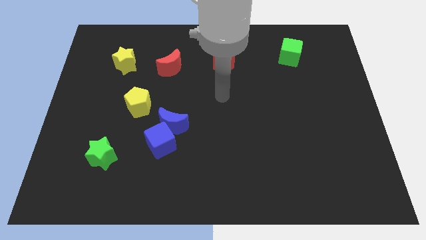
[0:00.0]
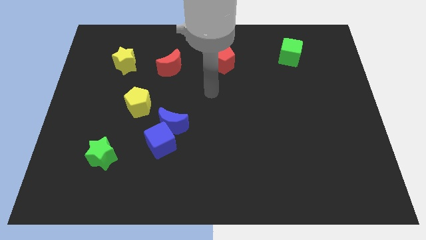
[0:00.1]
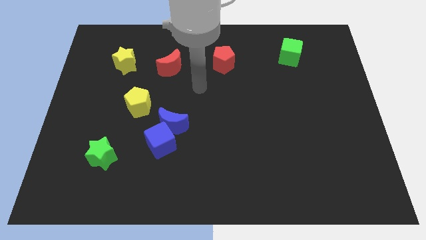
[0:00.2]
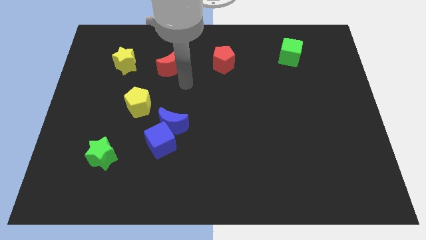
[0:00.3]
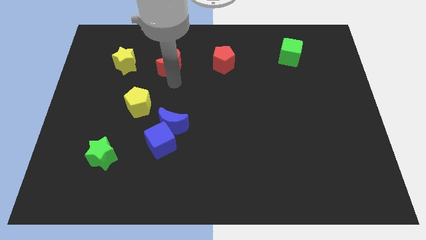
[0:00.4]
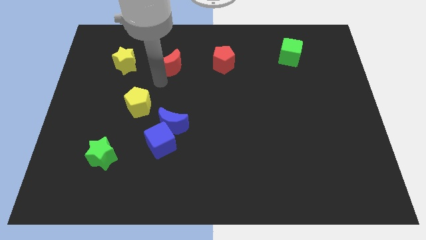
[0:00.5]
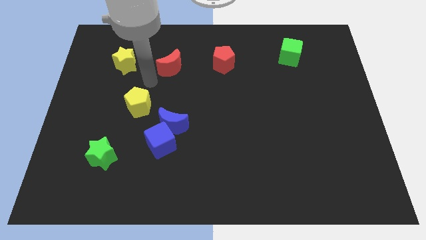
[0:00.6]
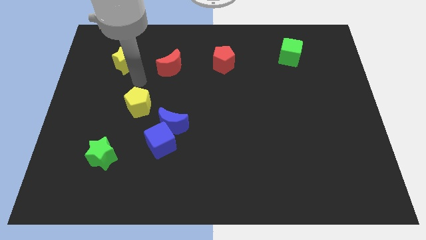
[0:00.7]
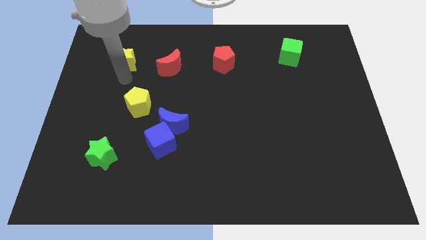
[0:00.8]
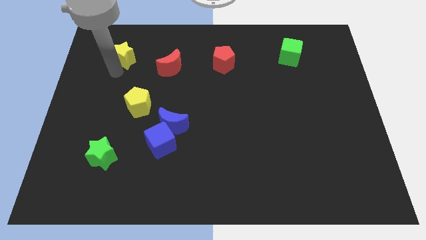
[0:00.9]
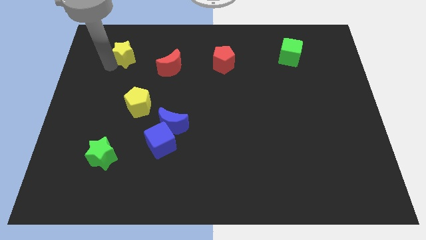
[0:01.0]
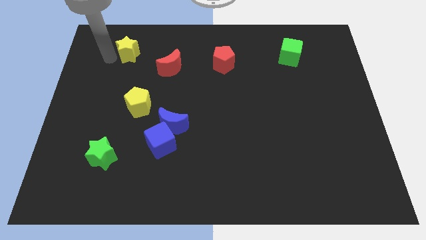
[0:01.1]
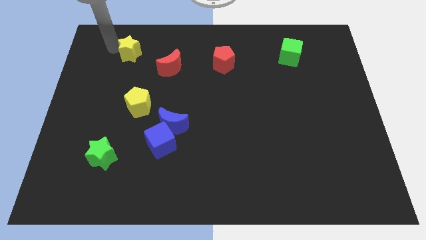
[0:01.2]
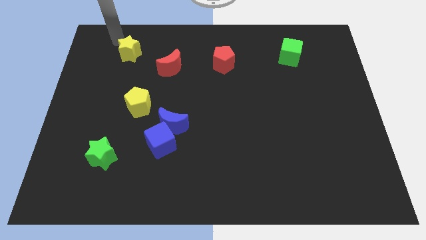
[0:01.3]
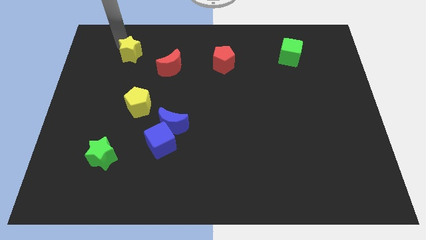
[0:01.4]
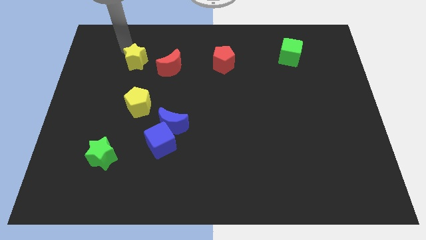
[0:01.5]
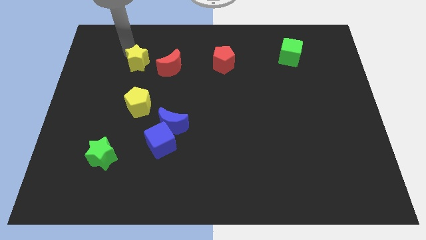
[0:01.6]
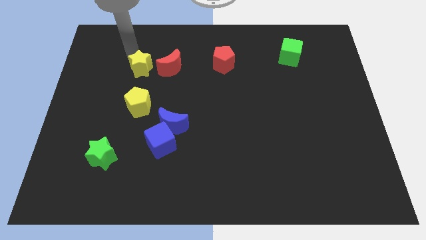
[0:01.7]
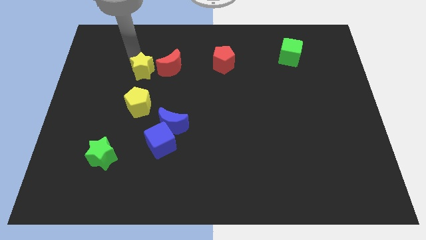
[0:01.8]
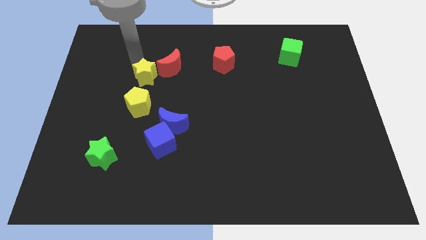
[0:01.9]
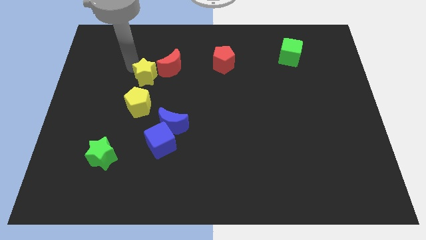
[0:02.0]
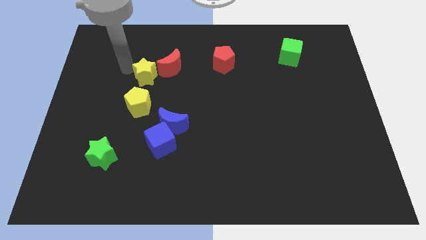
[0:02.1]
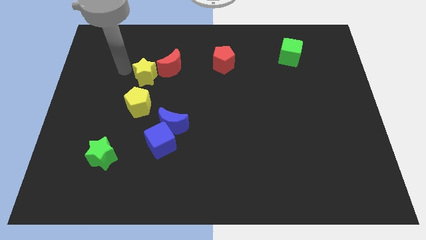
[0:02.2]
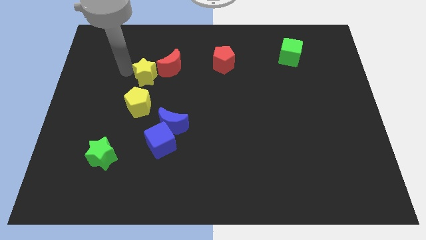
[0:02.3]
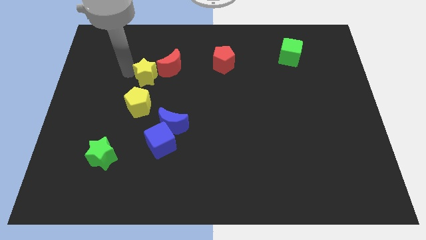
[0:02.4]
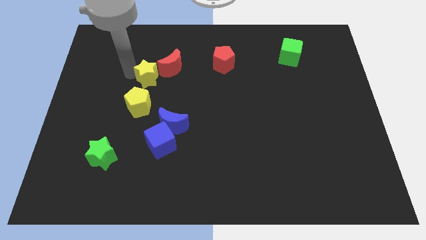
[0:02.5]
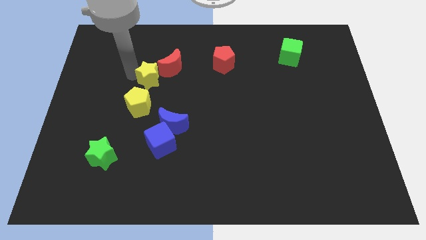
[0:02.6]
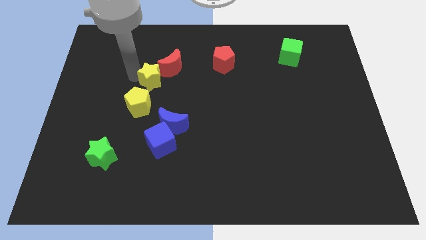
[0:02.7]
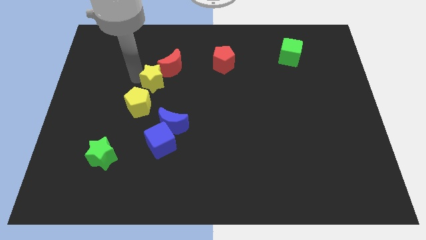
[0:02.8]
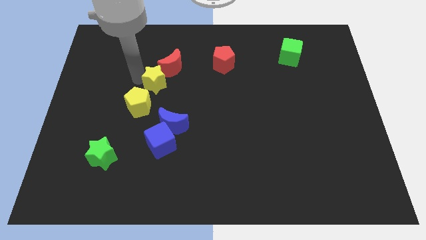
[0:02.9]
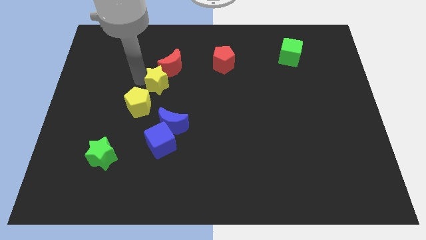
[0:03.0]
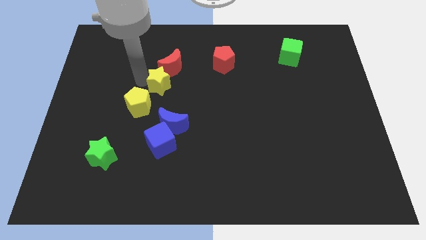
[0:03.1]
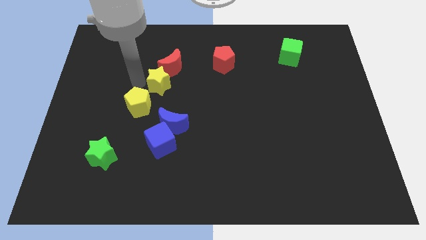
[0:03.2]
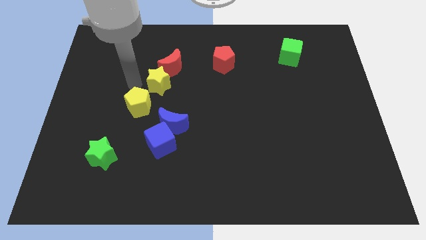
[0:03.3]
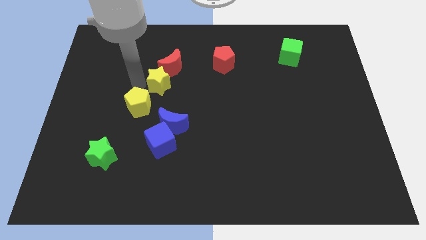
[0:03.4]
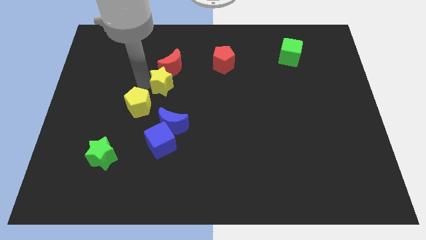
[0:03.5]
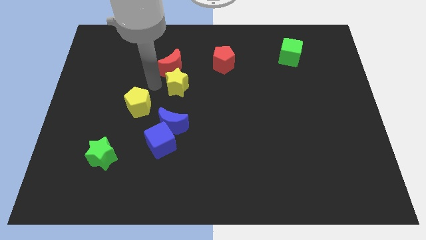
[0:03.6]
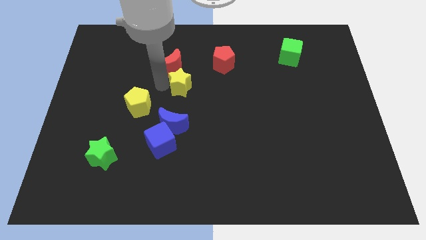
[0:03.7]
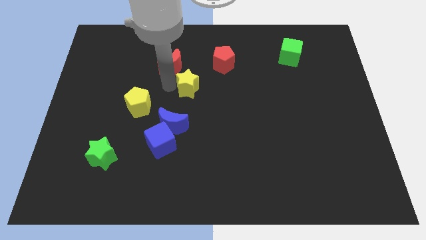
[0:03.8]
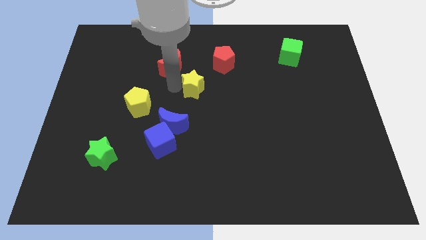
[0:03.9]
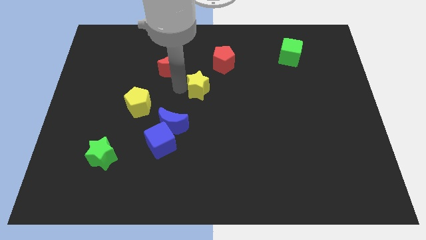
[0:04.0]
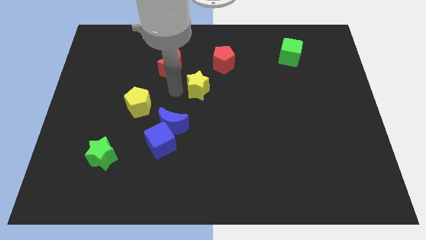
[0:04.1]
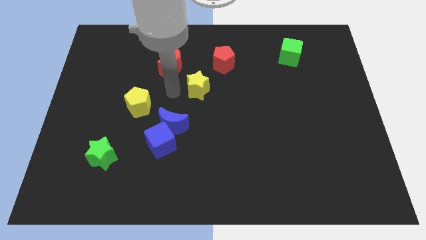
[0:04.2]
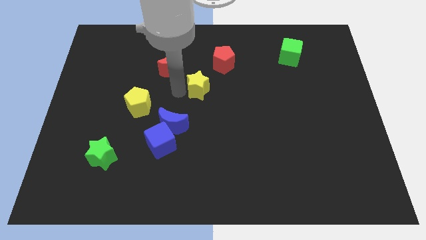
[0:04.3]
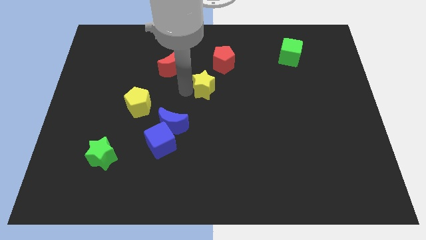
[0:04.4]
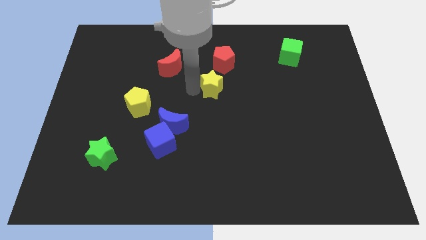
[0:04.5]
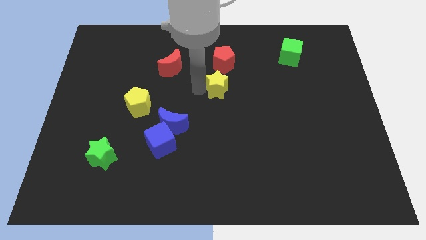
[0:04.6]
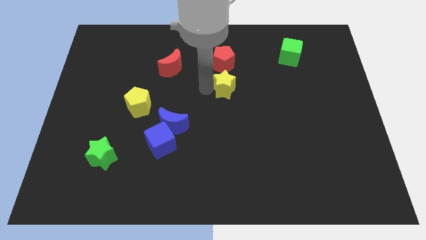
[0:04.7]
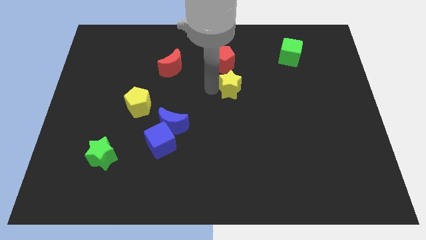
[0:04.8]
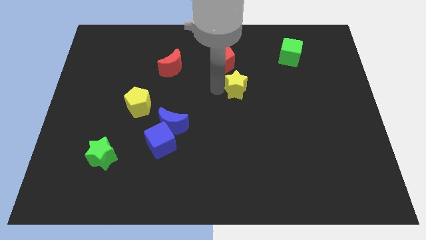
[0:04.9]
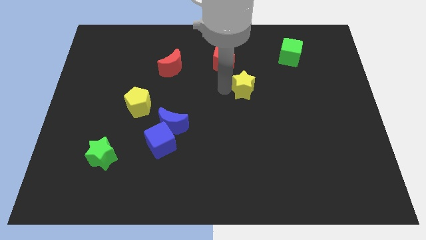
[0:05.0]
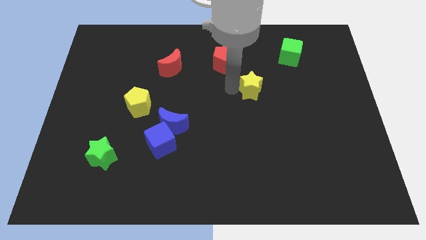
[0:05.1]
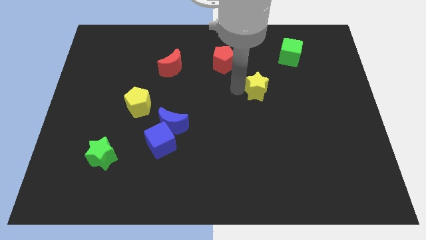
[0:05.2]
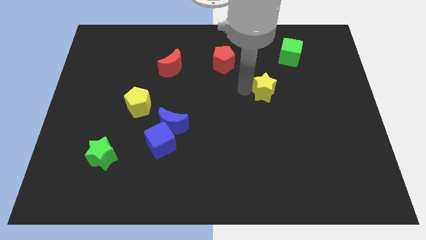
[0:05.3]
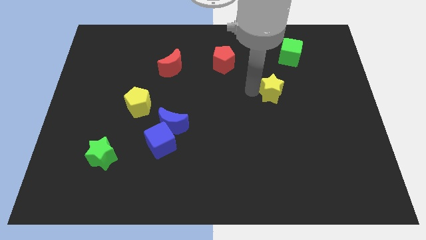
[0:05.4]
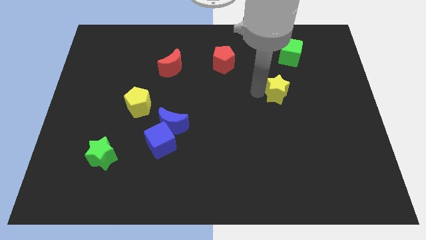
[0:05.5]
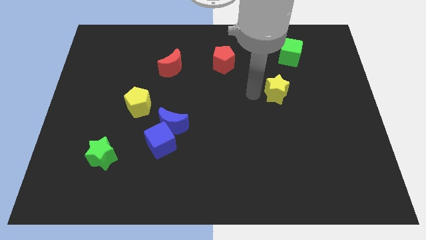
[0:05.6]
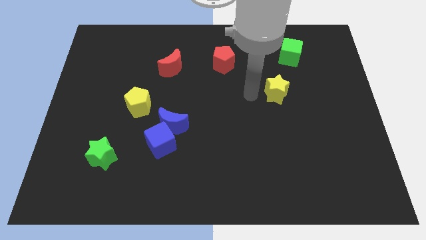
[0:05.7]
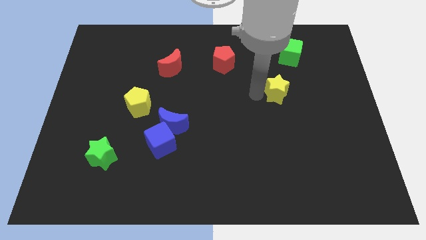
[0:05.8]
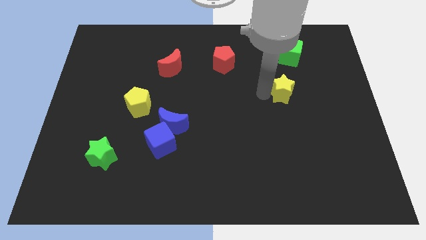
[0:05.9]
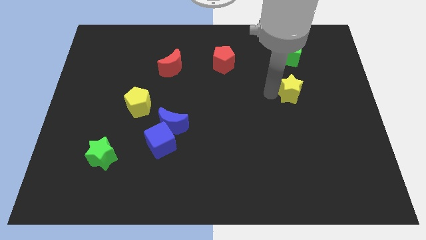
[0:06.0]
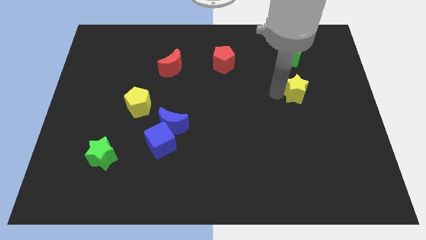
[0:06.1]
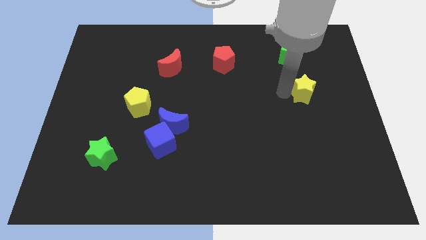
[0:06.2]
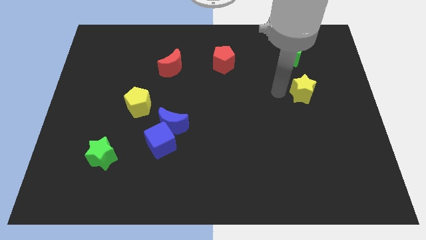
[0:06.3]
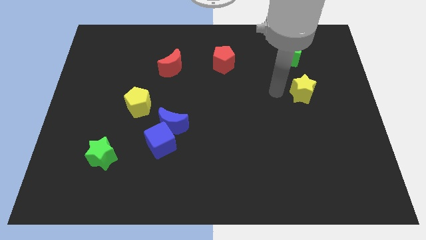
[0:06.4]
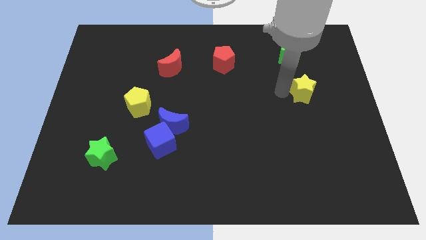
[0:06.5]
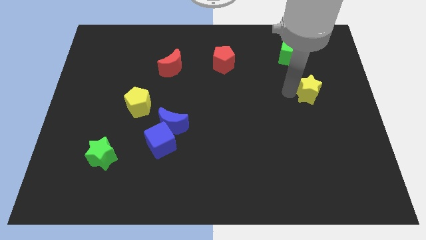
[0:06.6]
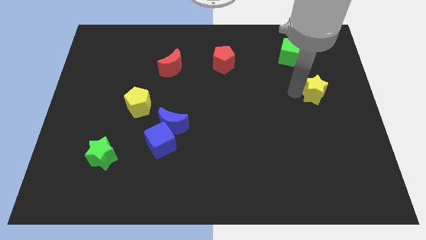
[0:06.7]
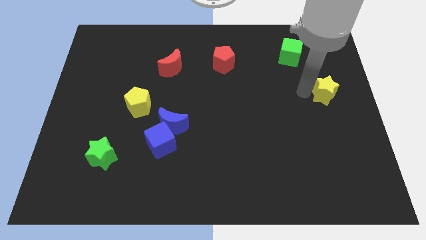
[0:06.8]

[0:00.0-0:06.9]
move the yellow star to the right side of the board
